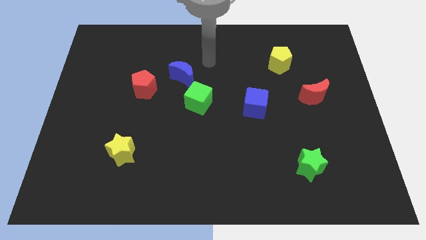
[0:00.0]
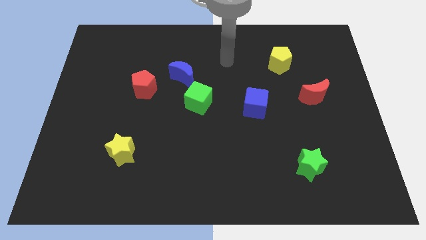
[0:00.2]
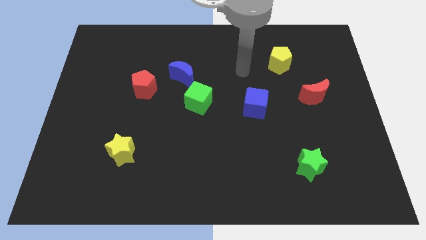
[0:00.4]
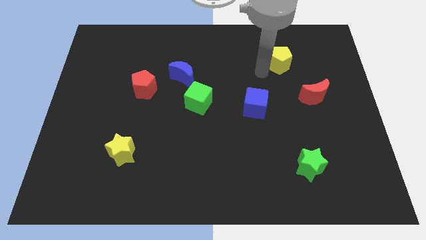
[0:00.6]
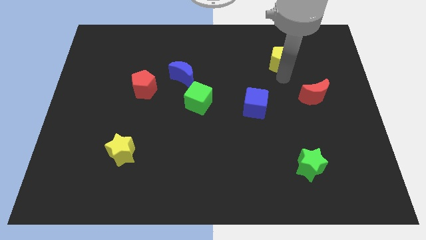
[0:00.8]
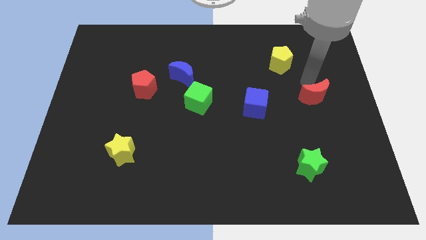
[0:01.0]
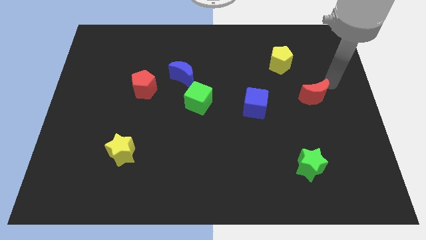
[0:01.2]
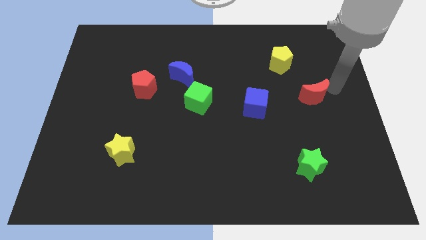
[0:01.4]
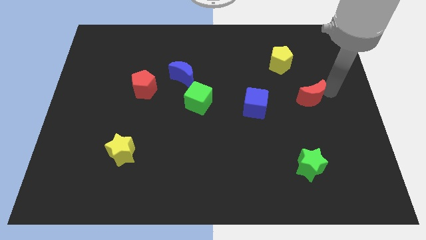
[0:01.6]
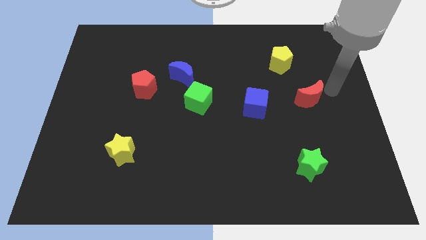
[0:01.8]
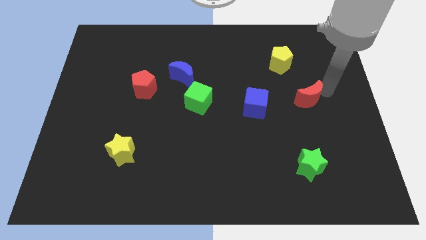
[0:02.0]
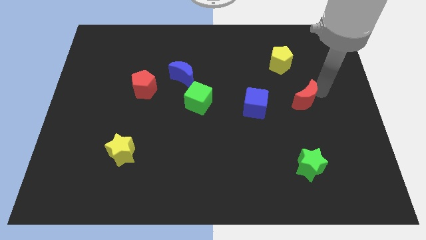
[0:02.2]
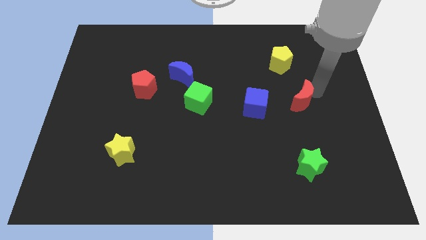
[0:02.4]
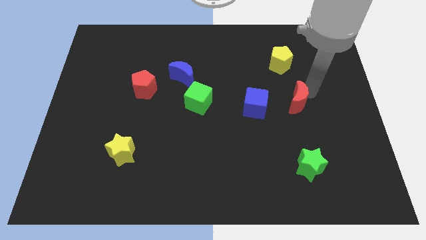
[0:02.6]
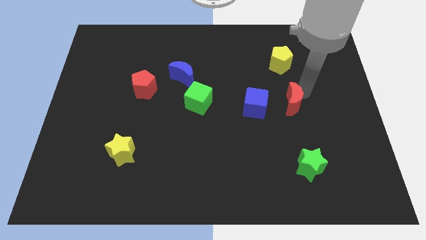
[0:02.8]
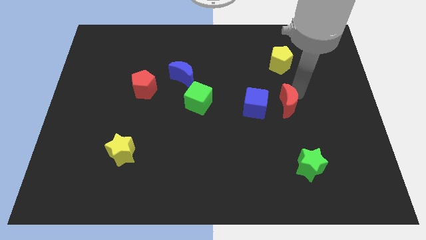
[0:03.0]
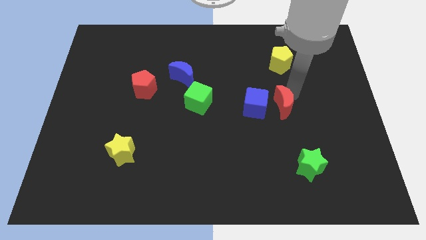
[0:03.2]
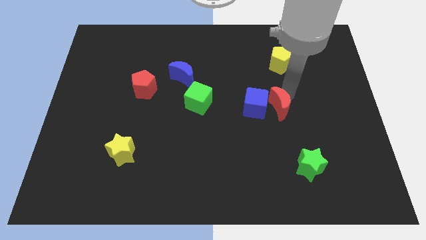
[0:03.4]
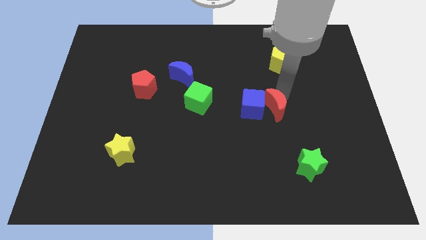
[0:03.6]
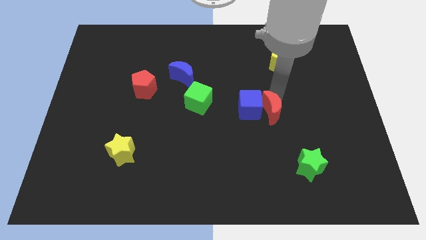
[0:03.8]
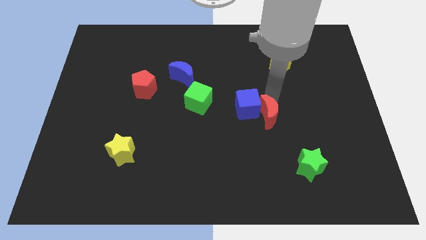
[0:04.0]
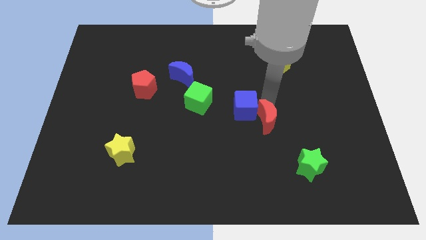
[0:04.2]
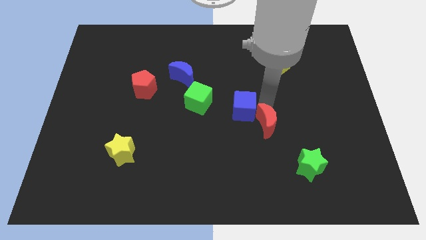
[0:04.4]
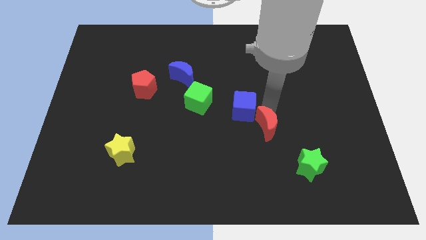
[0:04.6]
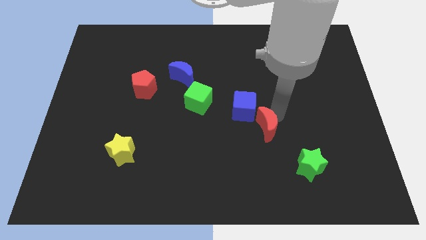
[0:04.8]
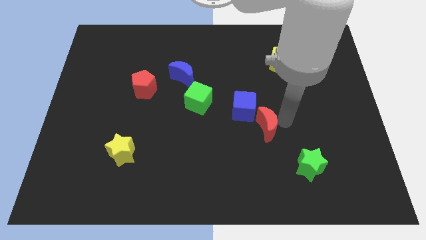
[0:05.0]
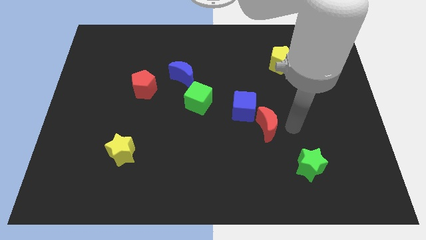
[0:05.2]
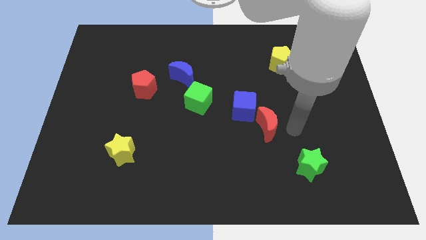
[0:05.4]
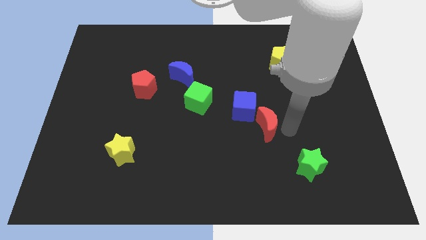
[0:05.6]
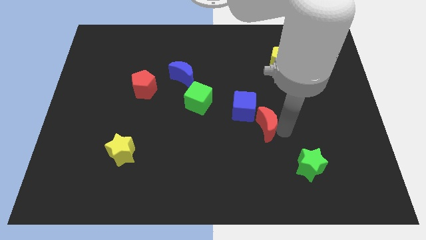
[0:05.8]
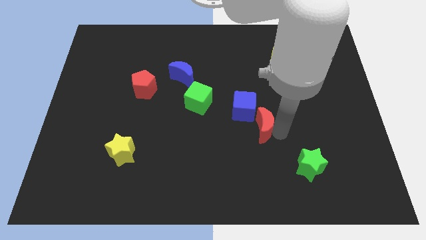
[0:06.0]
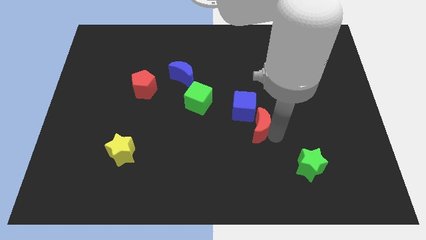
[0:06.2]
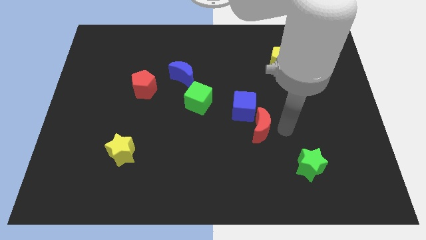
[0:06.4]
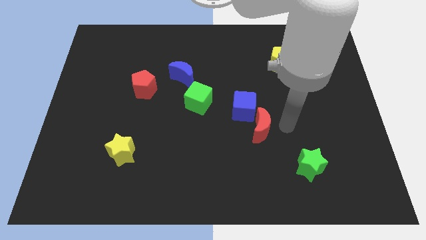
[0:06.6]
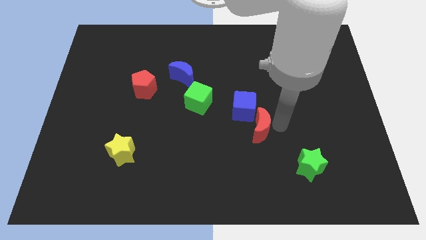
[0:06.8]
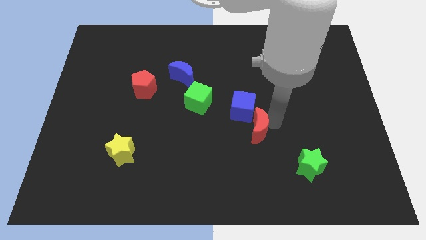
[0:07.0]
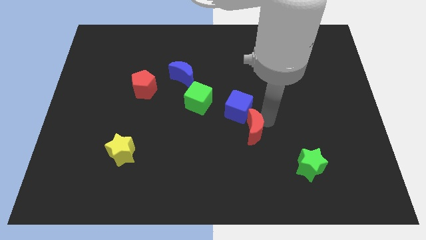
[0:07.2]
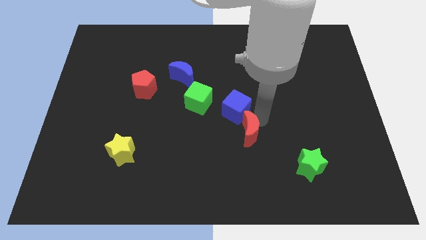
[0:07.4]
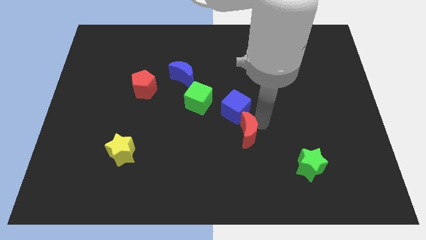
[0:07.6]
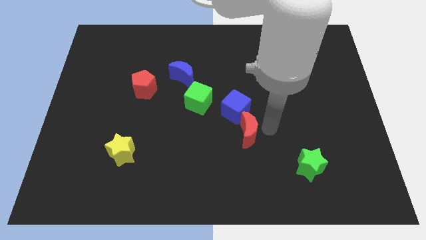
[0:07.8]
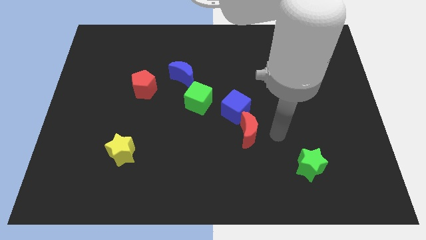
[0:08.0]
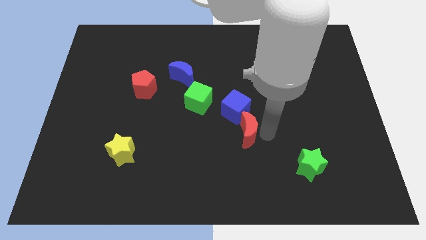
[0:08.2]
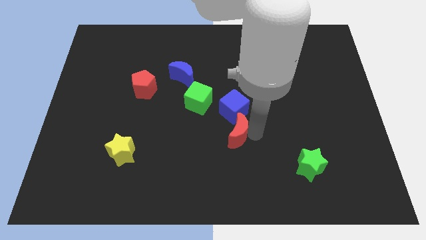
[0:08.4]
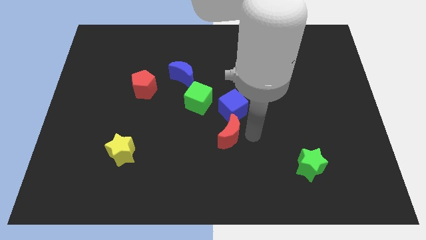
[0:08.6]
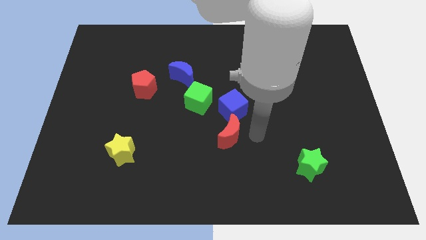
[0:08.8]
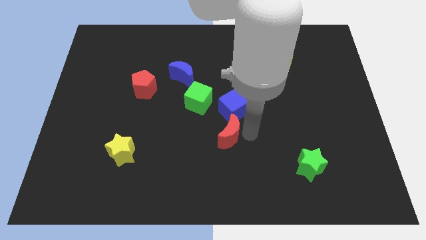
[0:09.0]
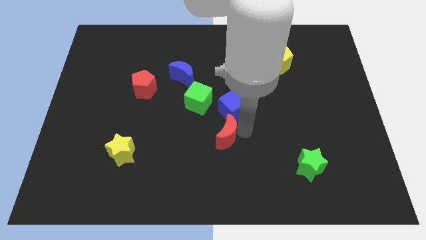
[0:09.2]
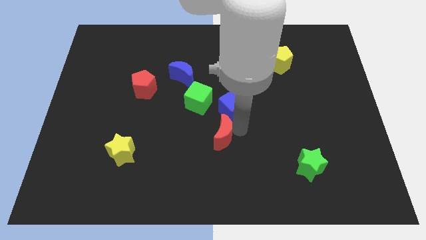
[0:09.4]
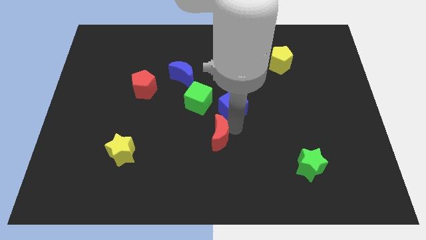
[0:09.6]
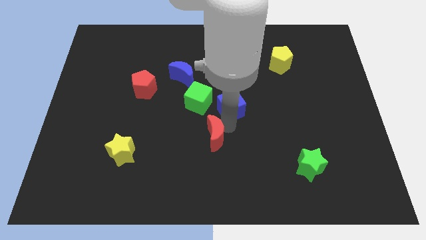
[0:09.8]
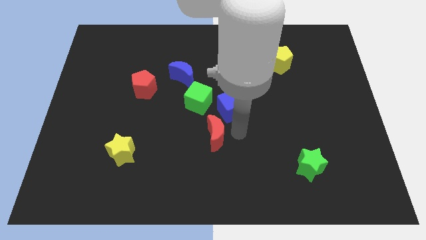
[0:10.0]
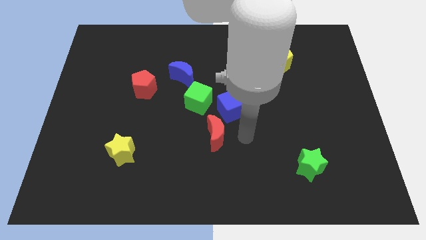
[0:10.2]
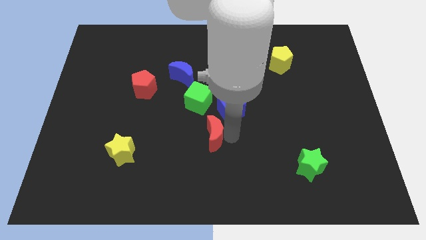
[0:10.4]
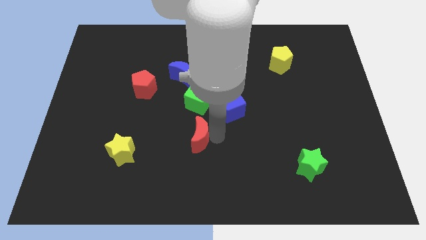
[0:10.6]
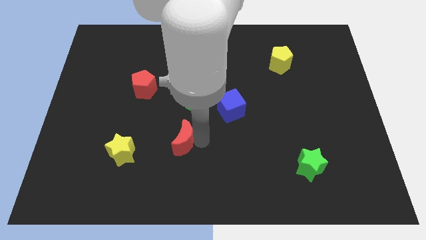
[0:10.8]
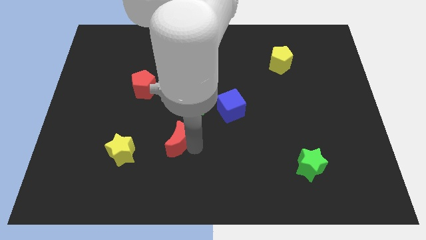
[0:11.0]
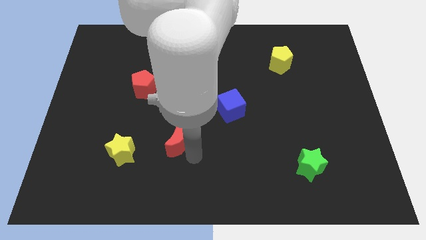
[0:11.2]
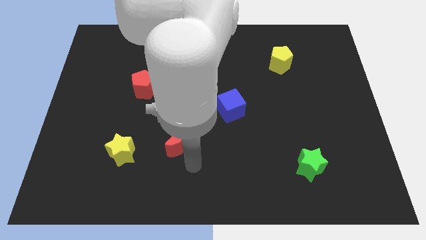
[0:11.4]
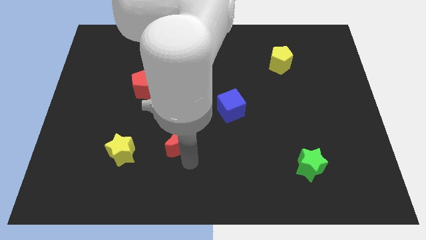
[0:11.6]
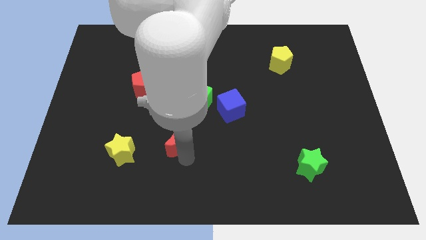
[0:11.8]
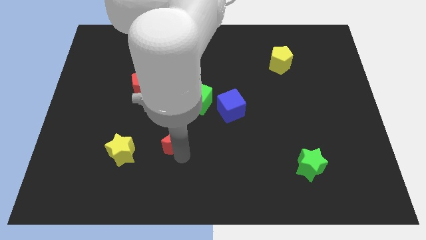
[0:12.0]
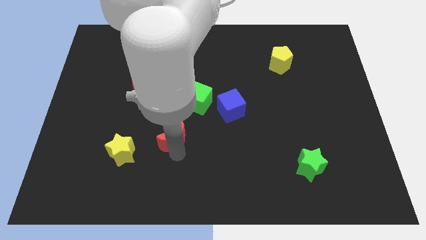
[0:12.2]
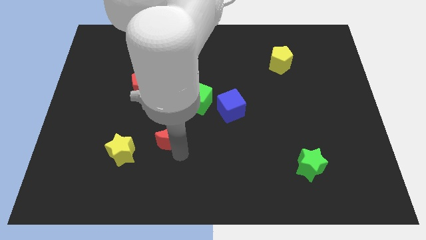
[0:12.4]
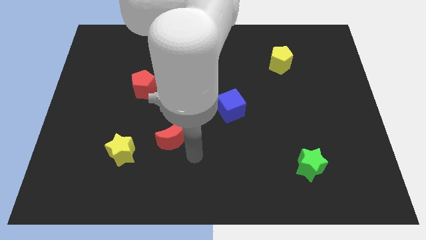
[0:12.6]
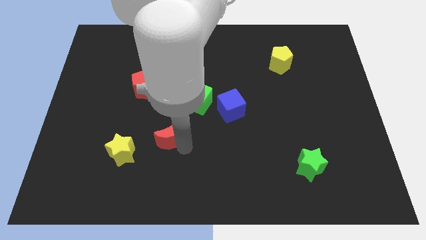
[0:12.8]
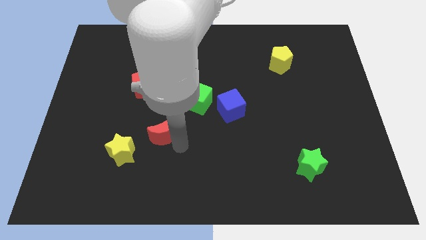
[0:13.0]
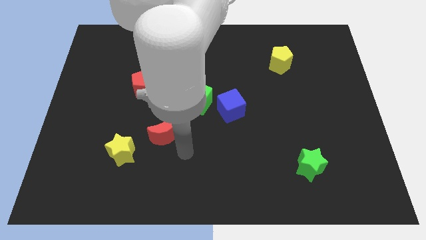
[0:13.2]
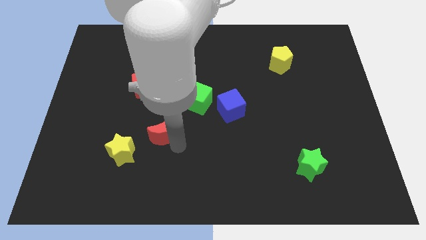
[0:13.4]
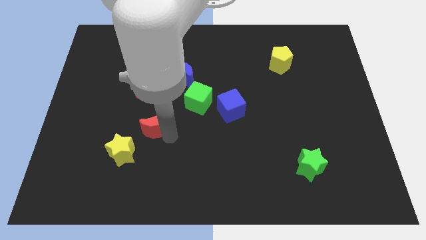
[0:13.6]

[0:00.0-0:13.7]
slide the red moon to the bottom of the red pentagon

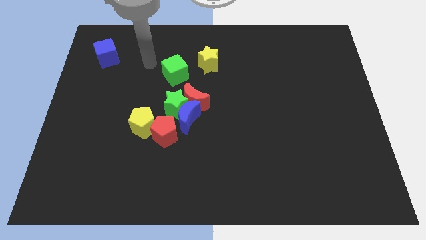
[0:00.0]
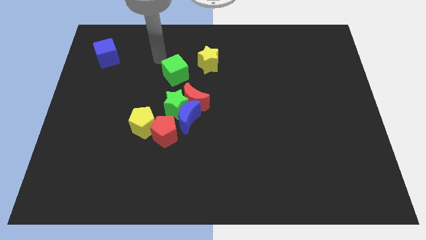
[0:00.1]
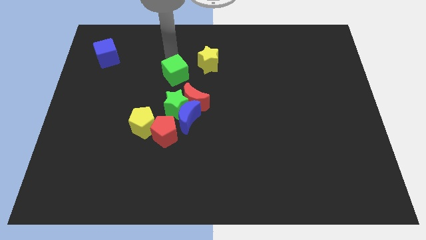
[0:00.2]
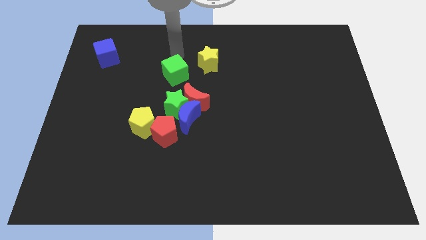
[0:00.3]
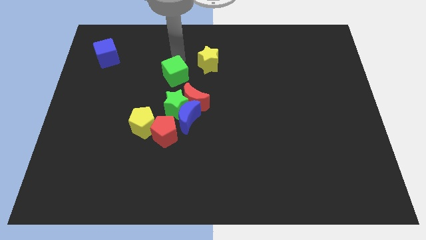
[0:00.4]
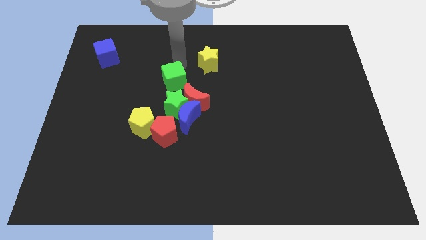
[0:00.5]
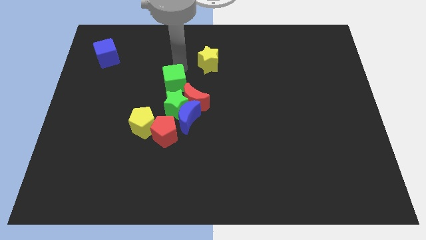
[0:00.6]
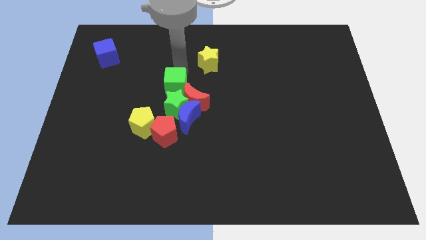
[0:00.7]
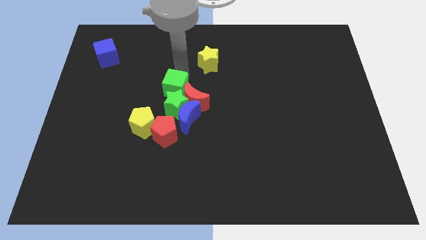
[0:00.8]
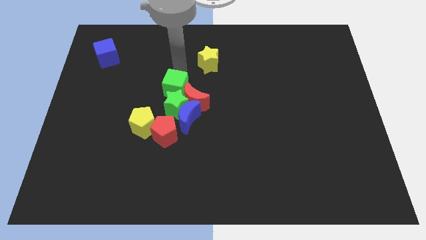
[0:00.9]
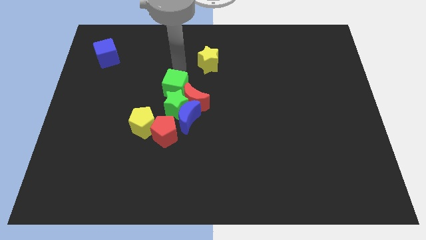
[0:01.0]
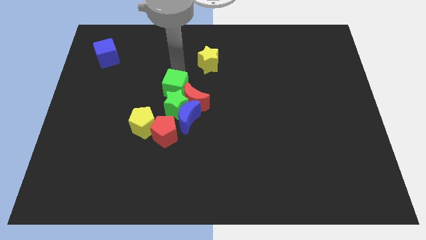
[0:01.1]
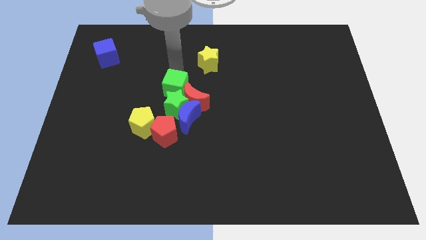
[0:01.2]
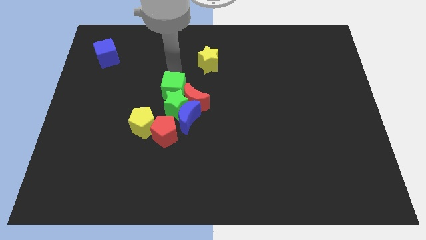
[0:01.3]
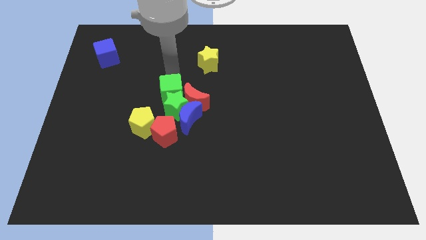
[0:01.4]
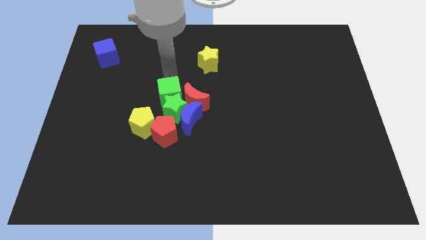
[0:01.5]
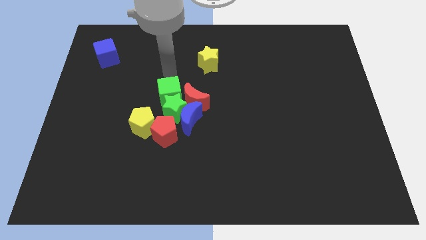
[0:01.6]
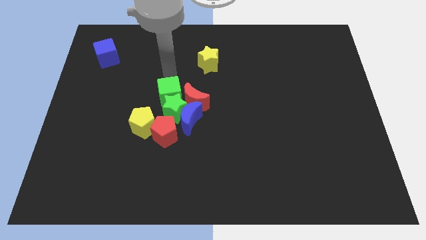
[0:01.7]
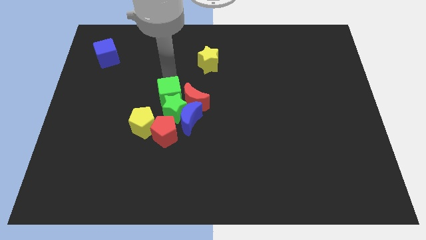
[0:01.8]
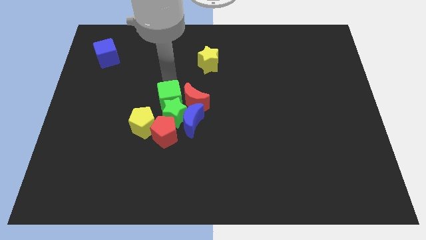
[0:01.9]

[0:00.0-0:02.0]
slide the green cube to the bottom left of the red moon
